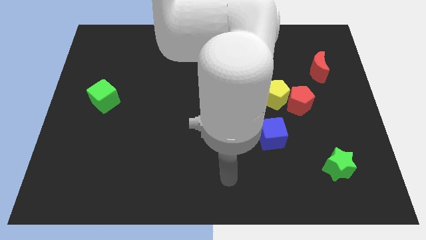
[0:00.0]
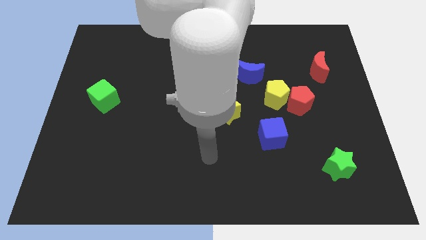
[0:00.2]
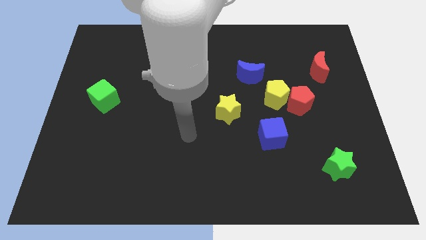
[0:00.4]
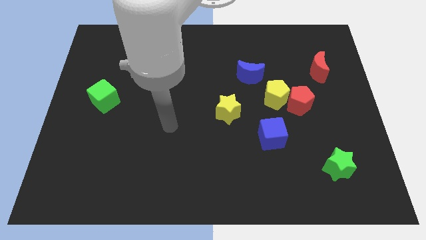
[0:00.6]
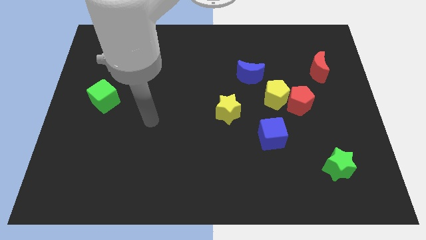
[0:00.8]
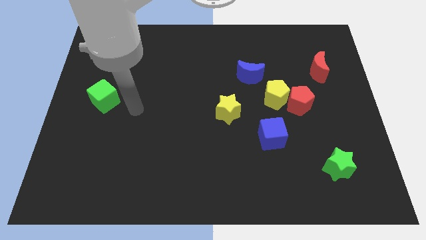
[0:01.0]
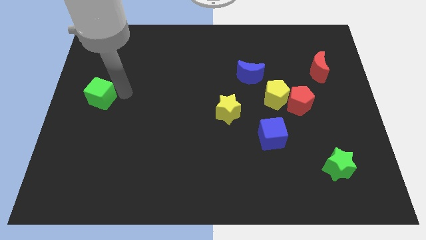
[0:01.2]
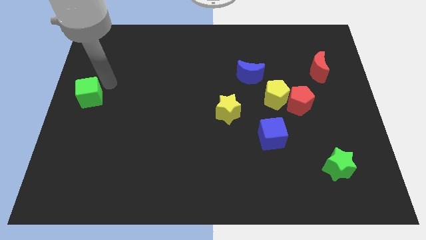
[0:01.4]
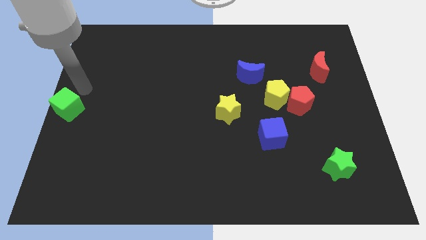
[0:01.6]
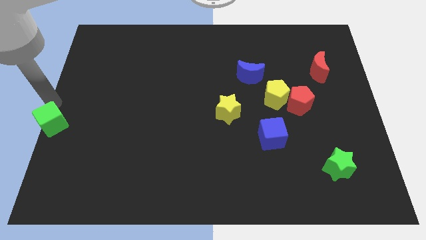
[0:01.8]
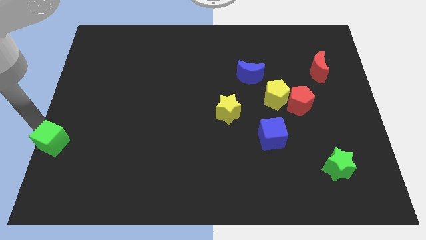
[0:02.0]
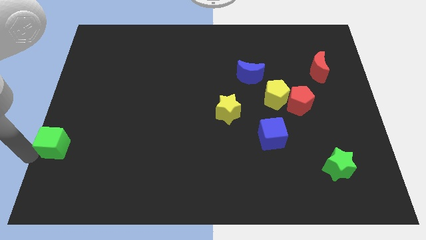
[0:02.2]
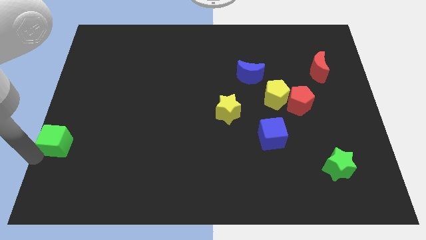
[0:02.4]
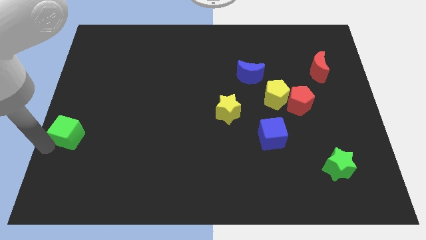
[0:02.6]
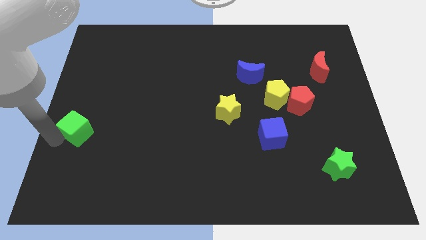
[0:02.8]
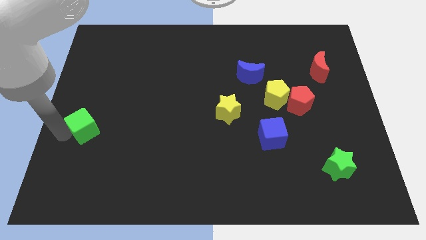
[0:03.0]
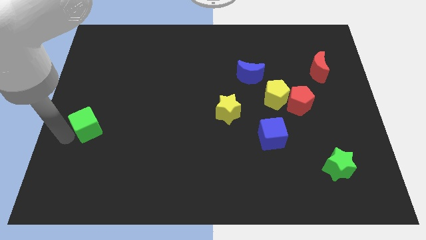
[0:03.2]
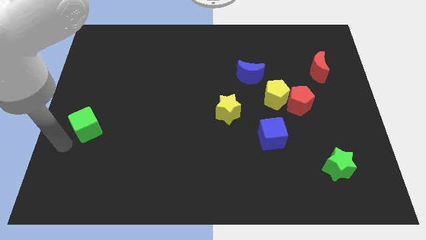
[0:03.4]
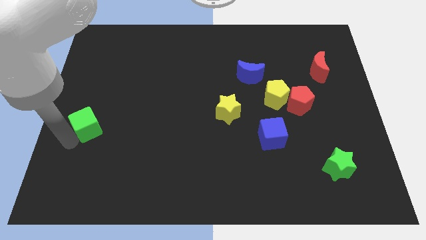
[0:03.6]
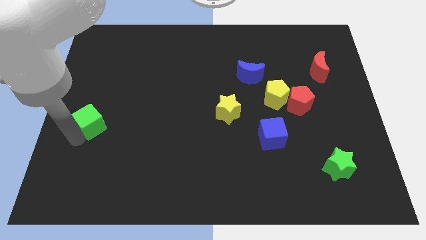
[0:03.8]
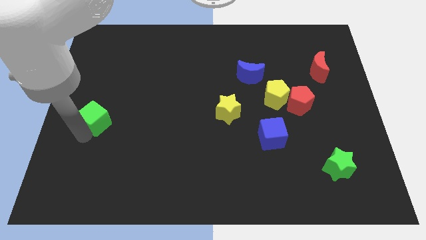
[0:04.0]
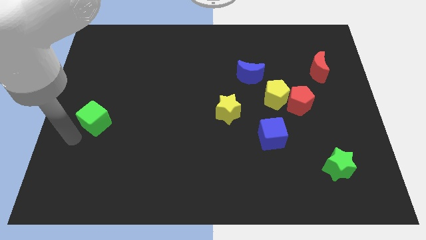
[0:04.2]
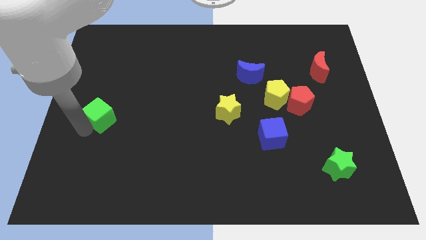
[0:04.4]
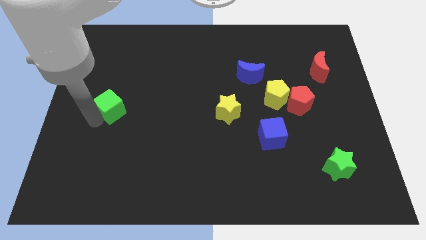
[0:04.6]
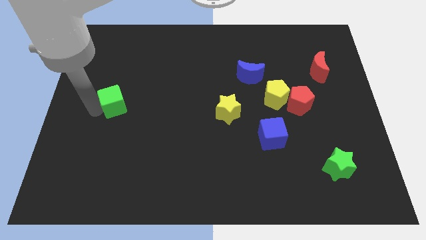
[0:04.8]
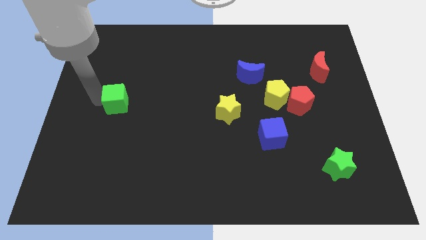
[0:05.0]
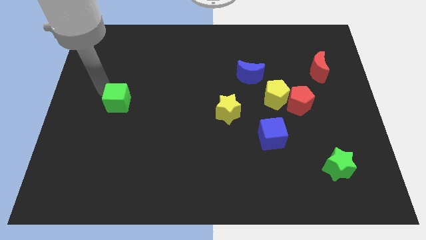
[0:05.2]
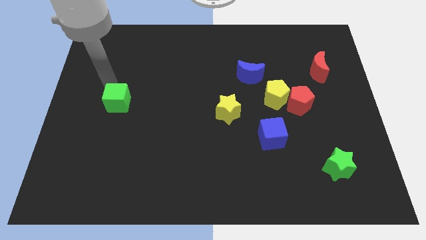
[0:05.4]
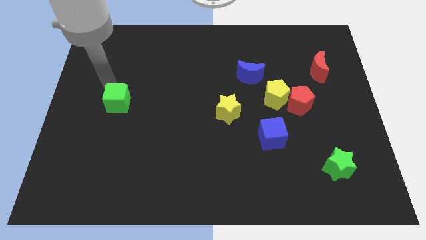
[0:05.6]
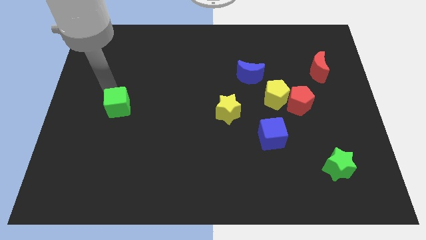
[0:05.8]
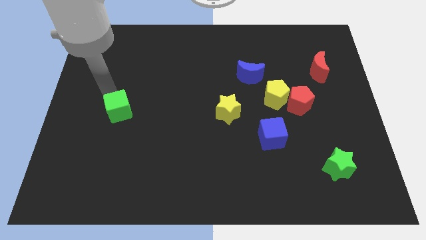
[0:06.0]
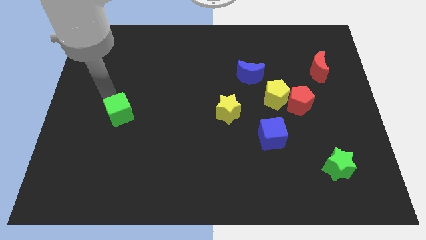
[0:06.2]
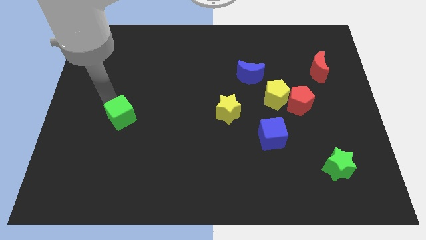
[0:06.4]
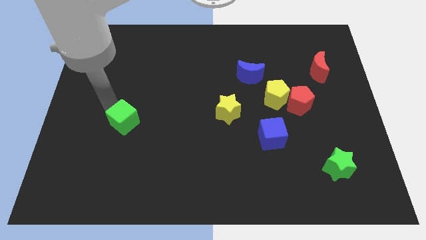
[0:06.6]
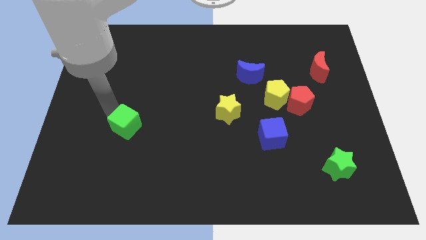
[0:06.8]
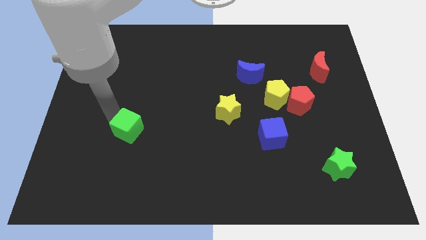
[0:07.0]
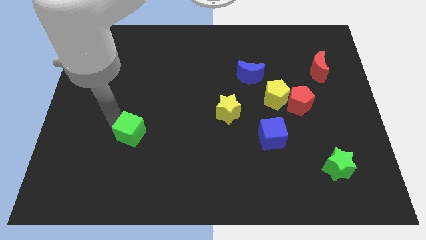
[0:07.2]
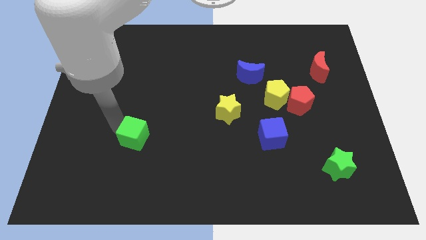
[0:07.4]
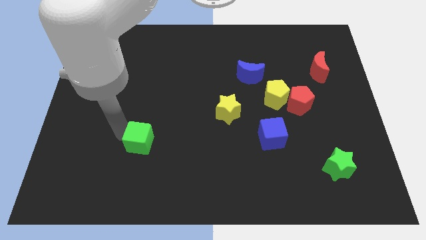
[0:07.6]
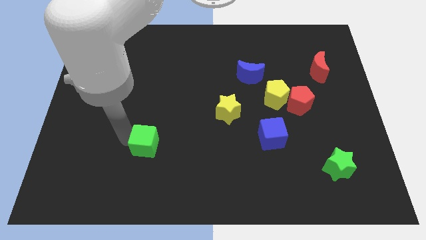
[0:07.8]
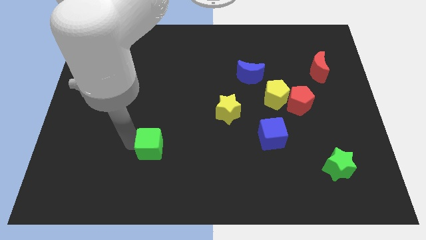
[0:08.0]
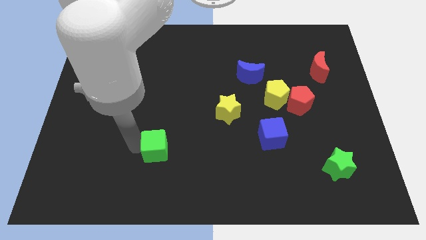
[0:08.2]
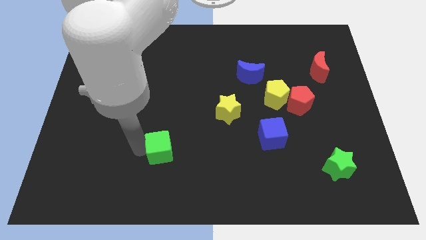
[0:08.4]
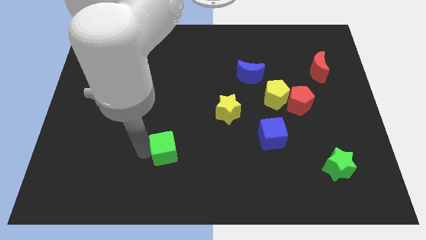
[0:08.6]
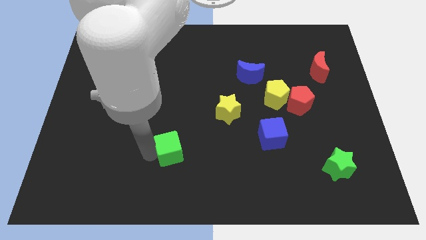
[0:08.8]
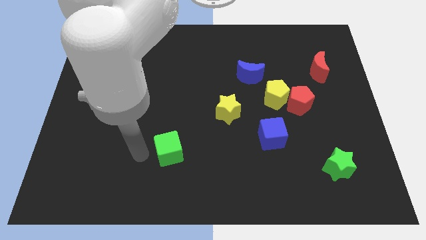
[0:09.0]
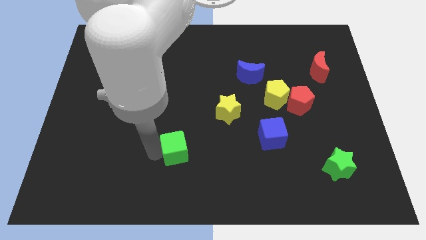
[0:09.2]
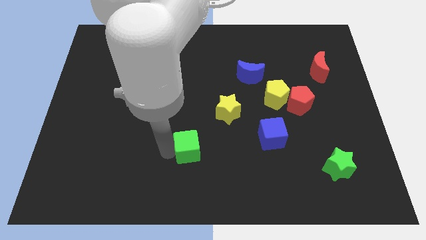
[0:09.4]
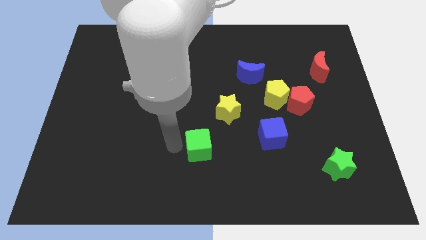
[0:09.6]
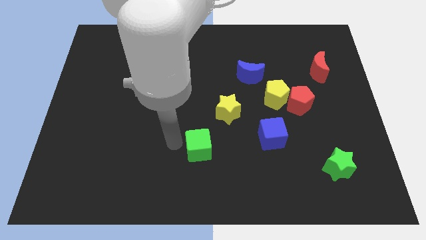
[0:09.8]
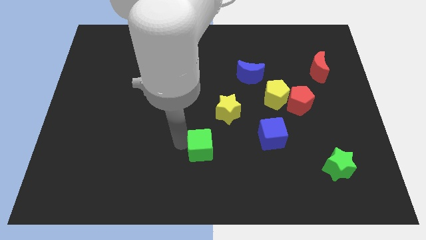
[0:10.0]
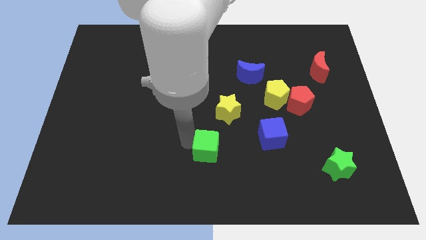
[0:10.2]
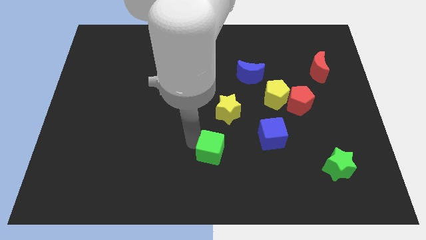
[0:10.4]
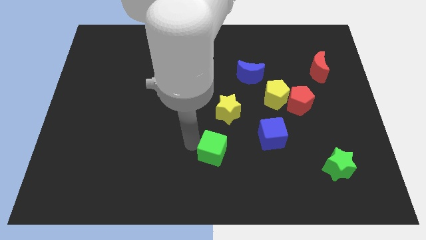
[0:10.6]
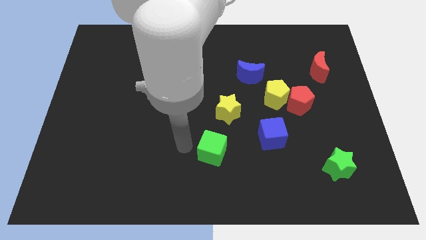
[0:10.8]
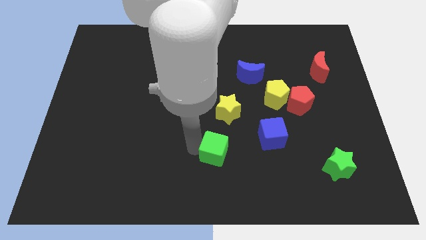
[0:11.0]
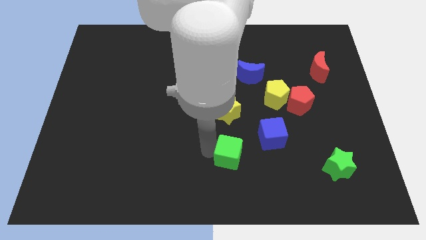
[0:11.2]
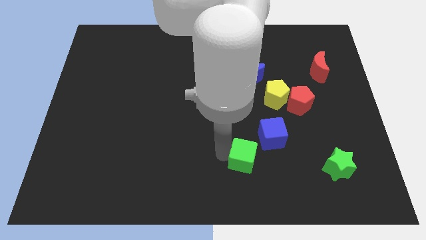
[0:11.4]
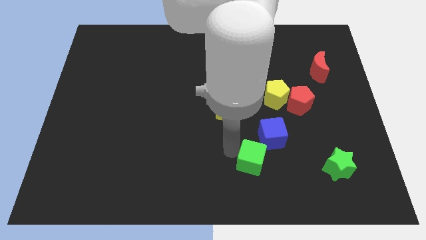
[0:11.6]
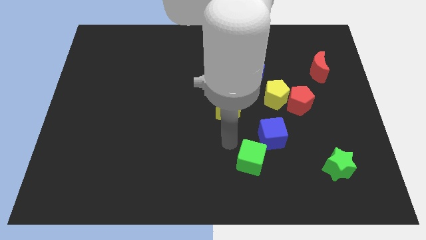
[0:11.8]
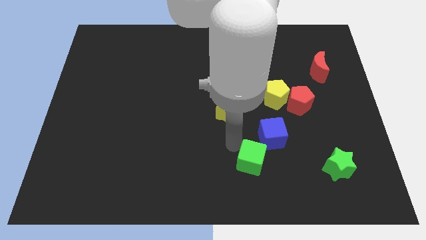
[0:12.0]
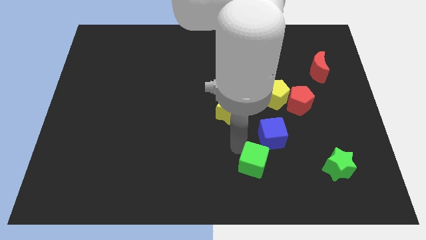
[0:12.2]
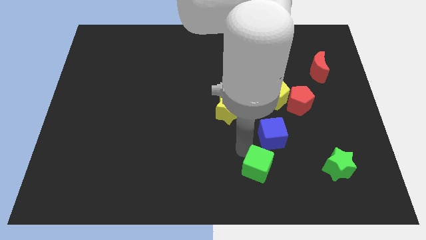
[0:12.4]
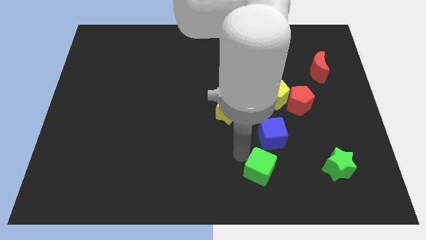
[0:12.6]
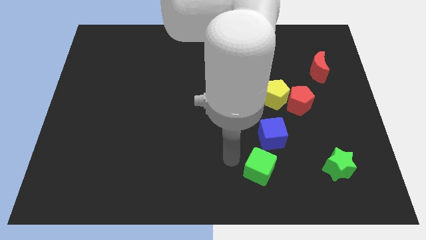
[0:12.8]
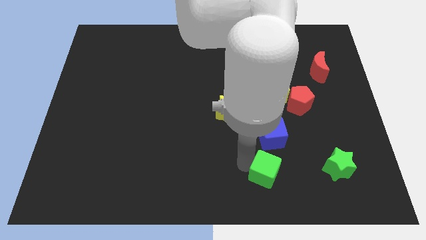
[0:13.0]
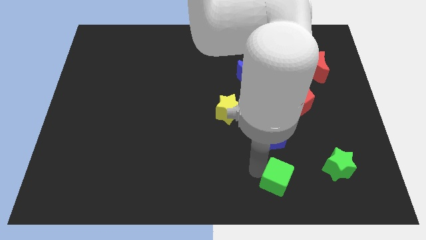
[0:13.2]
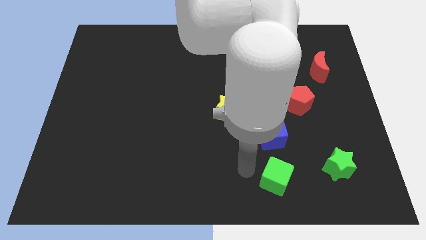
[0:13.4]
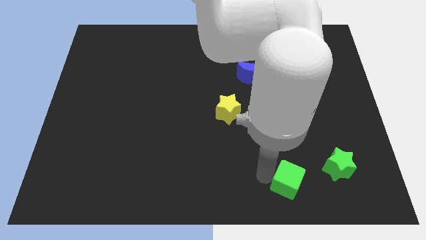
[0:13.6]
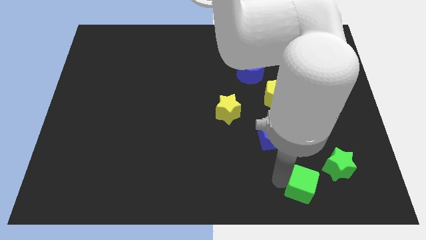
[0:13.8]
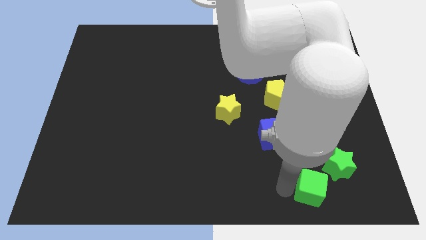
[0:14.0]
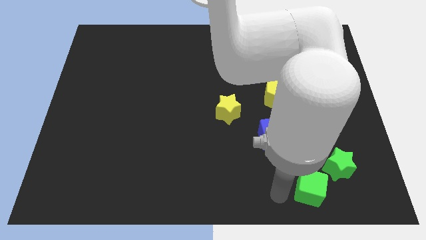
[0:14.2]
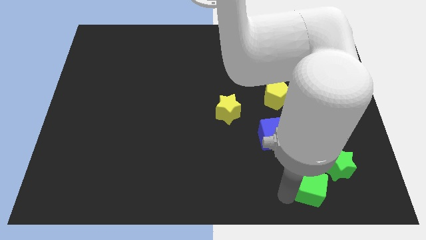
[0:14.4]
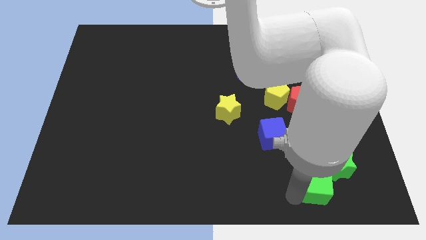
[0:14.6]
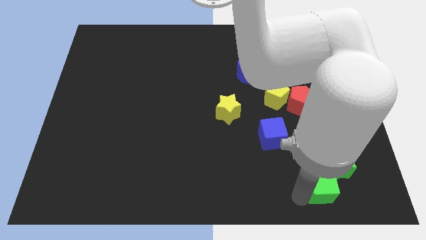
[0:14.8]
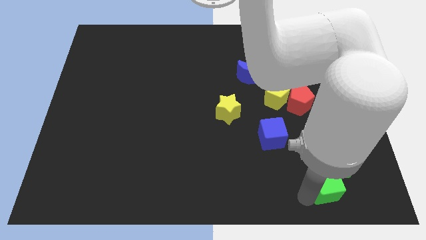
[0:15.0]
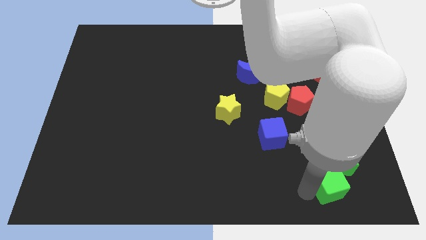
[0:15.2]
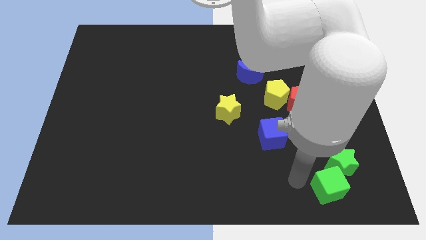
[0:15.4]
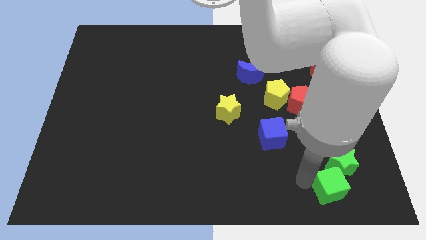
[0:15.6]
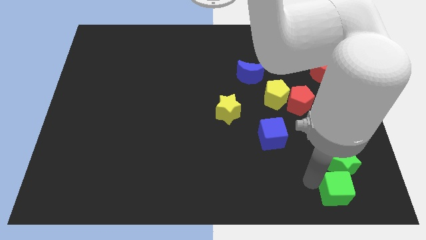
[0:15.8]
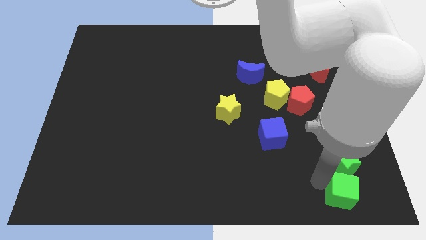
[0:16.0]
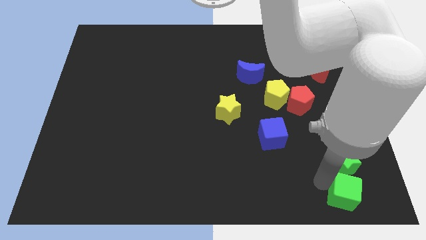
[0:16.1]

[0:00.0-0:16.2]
slide the green cube to the bottom right corner
